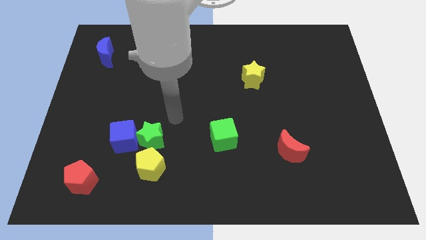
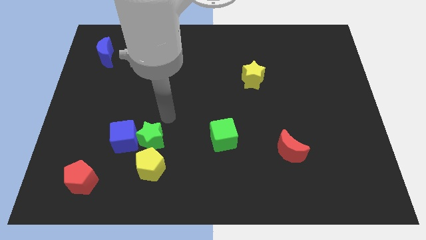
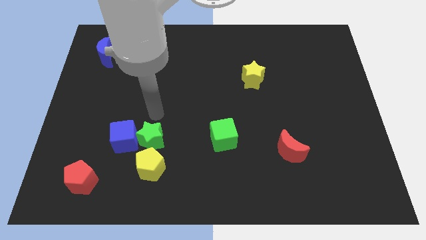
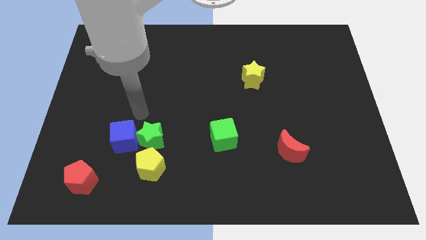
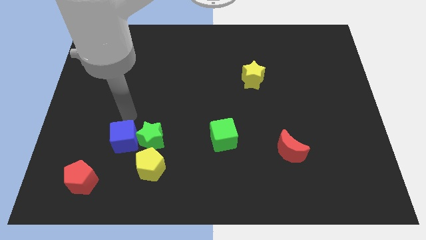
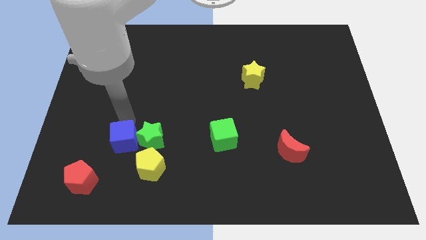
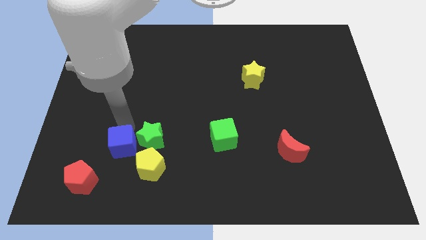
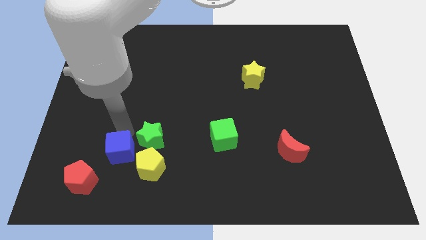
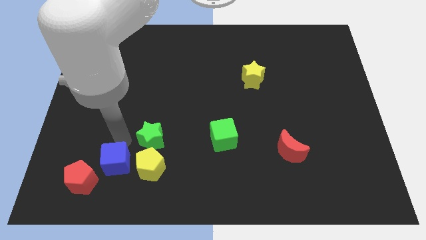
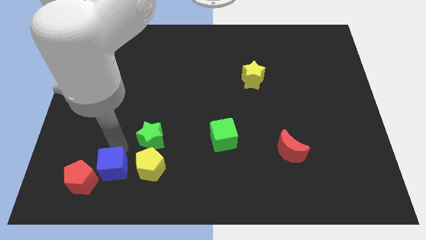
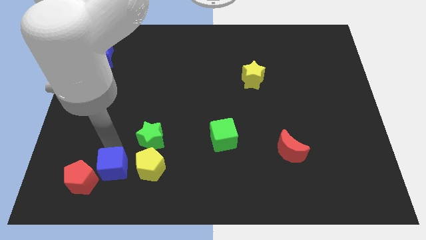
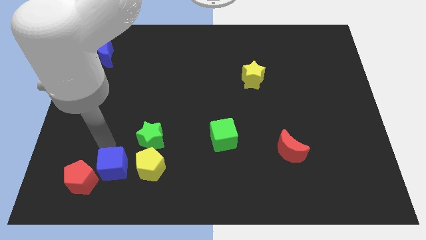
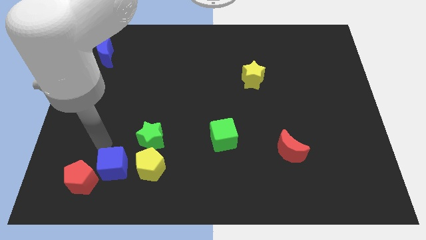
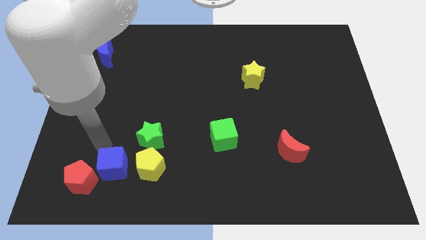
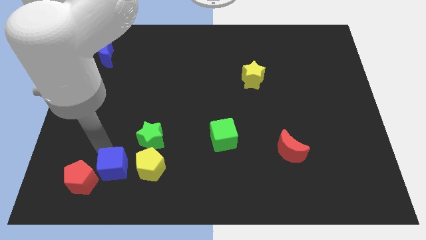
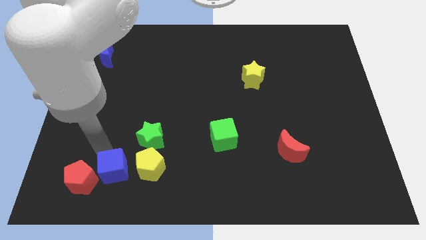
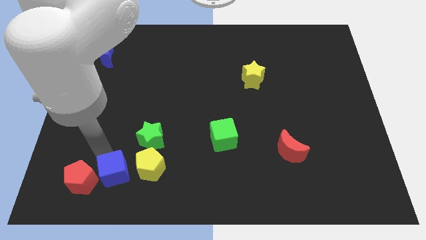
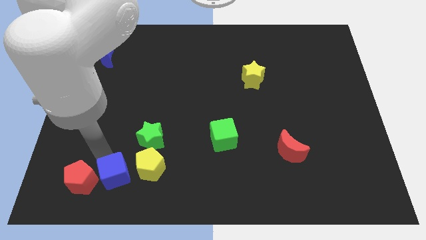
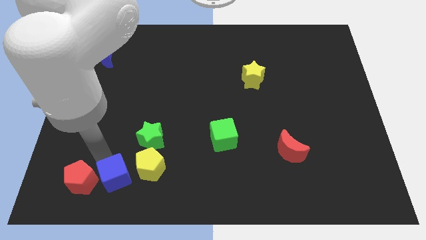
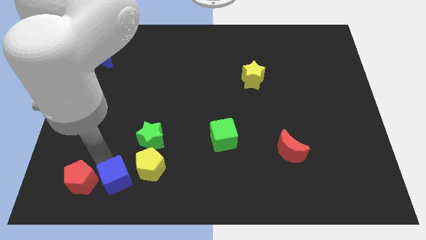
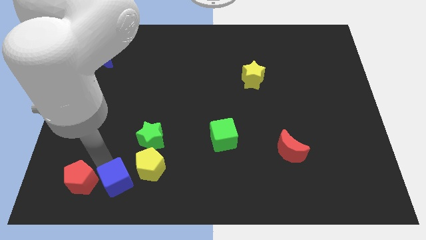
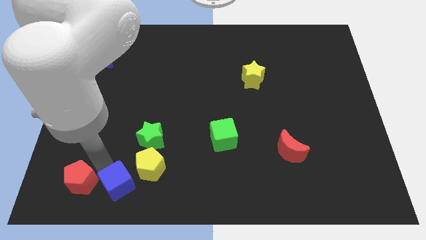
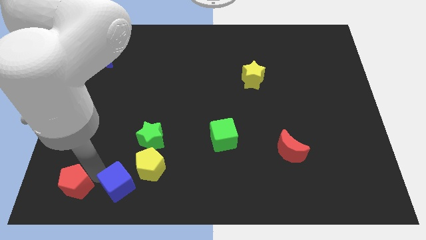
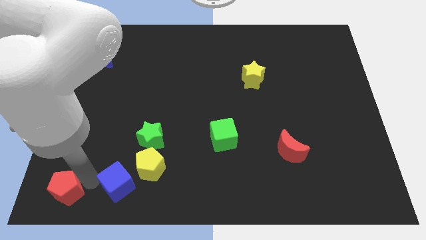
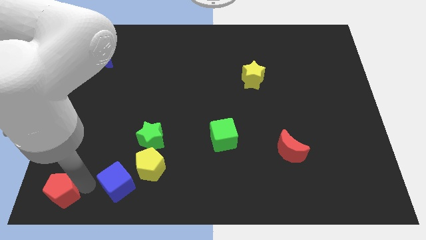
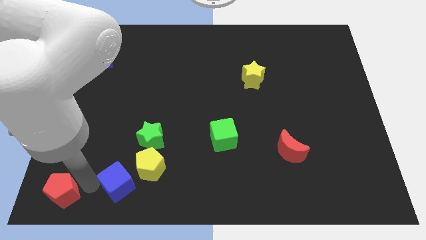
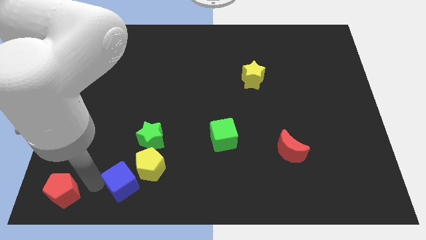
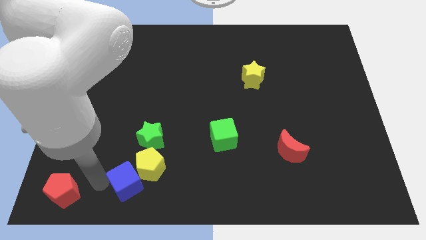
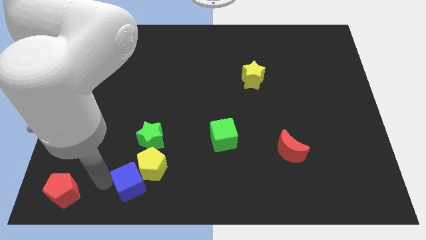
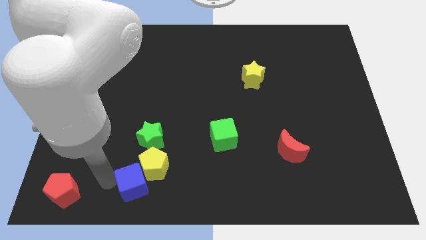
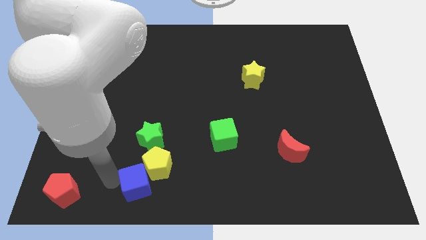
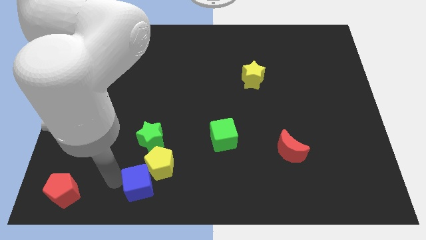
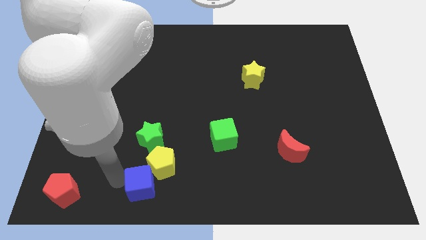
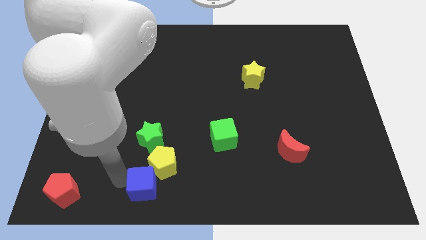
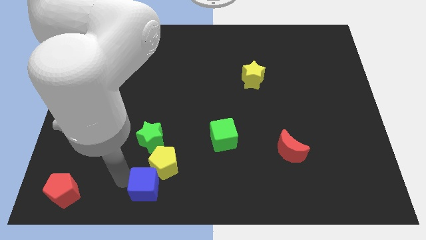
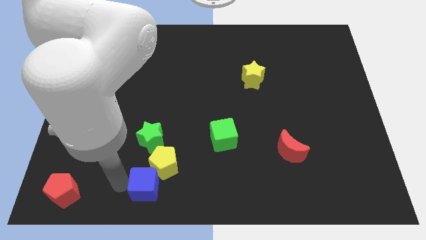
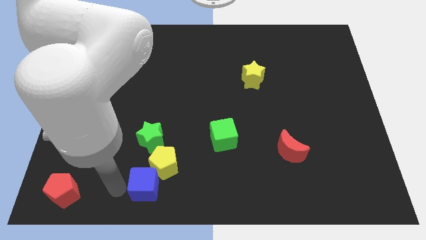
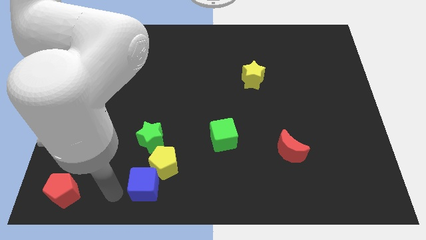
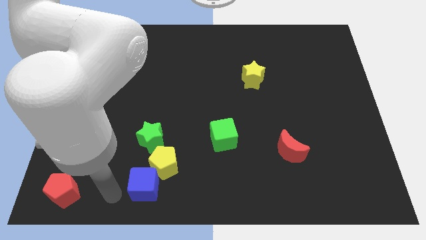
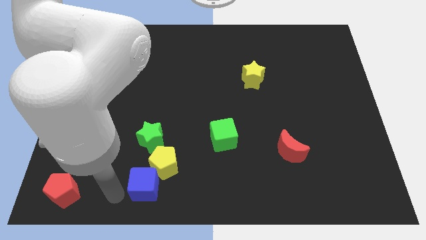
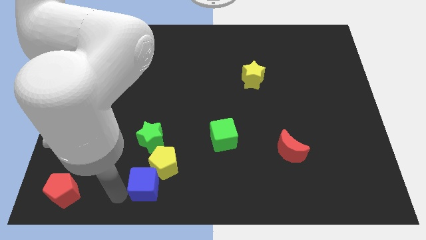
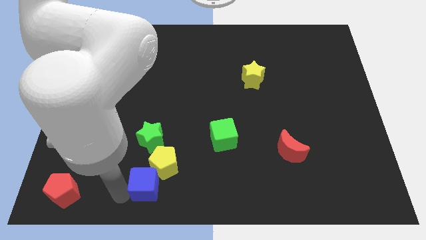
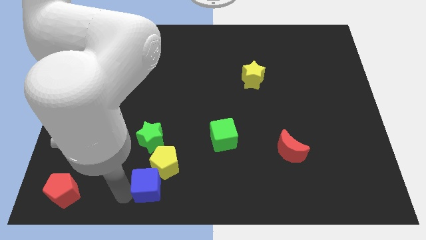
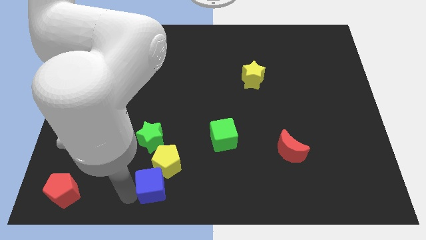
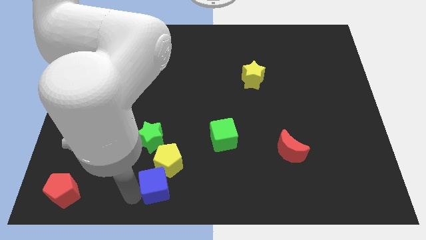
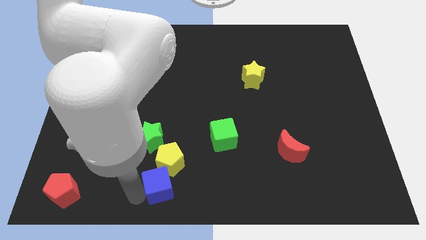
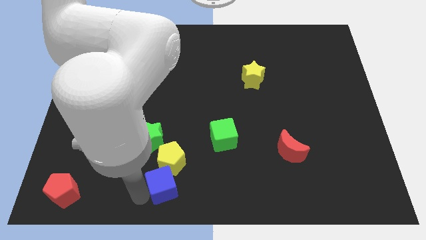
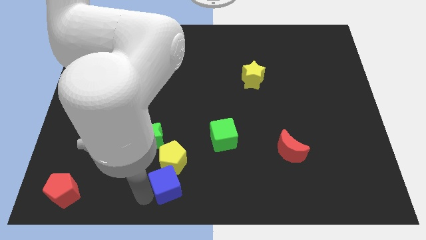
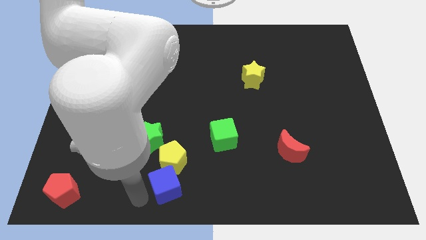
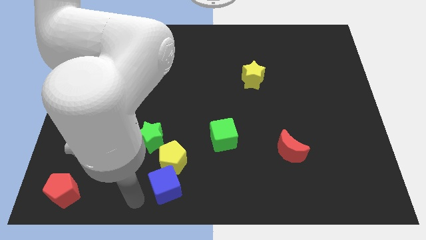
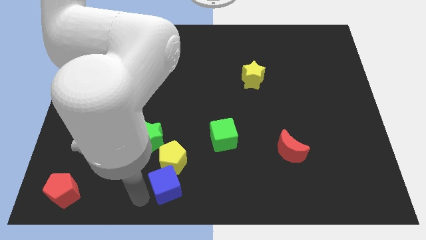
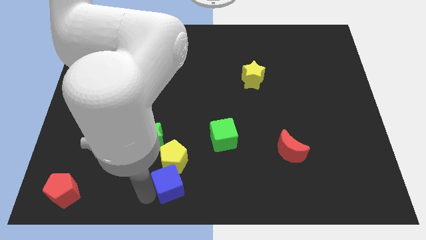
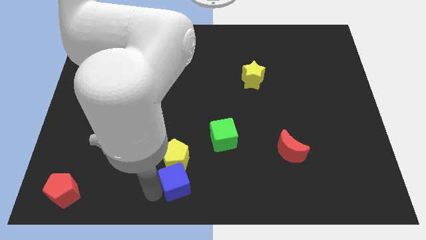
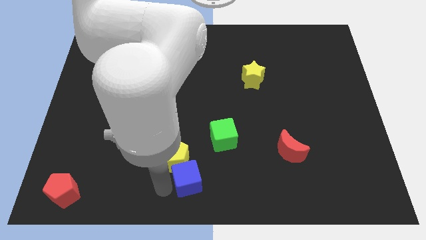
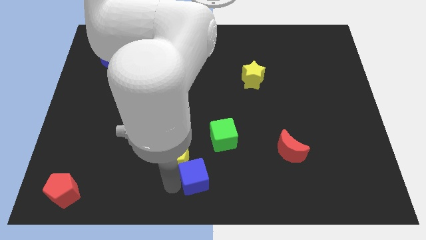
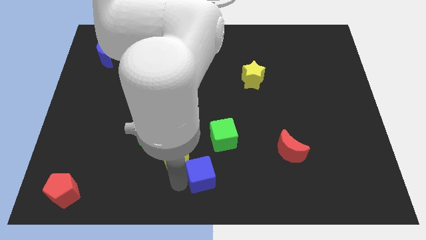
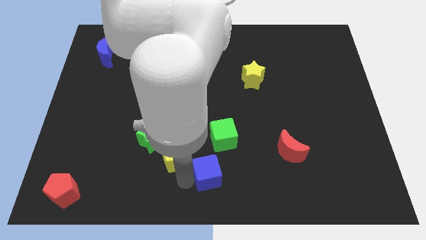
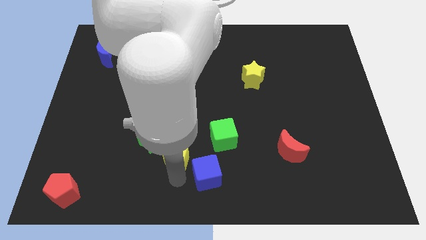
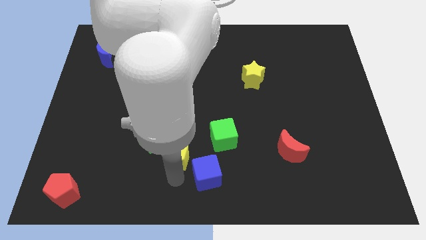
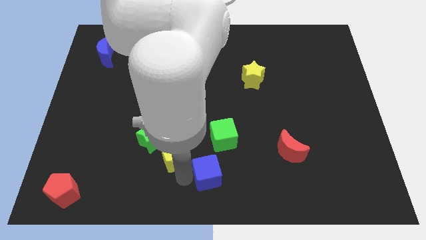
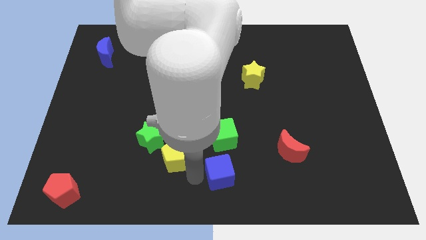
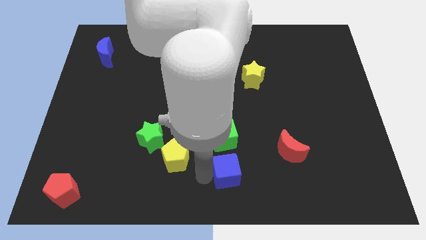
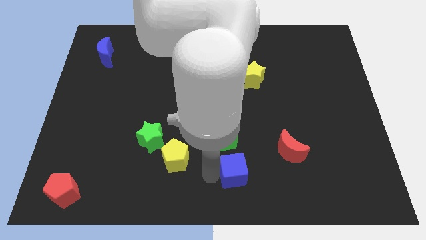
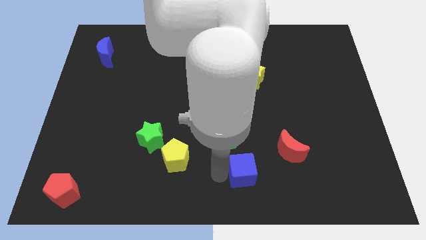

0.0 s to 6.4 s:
slide the blue cube diagonally down and to the left of the red moon

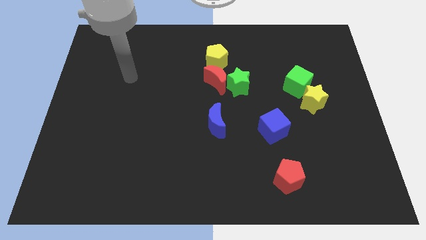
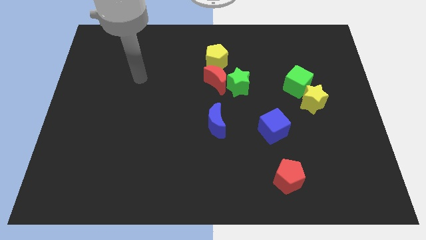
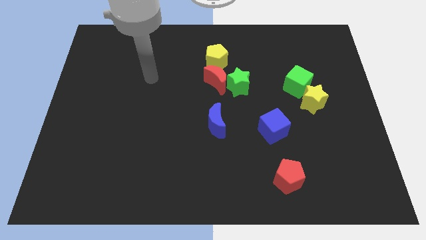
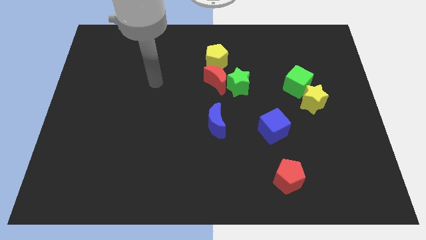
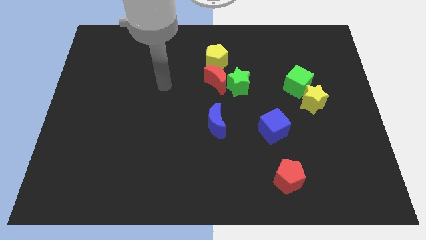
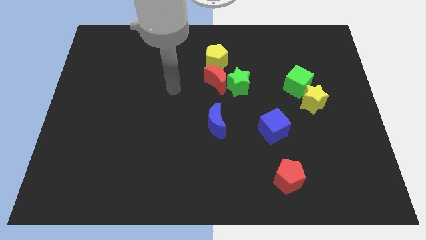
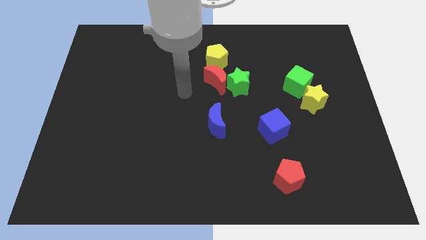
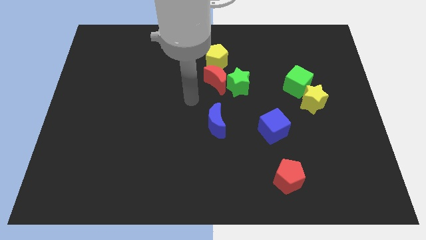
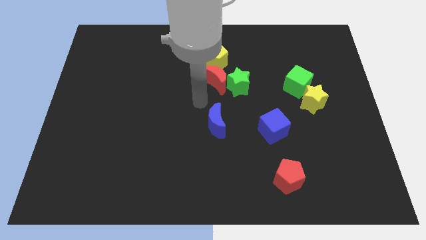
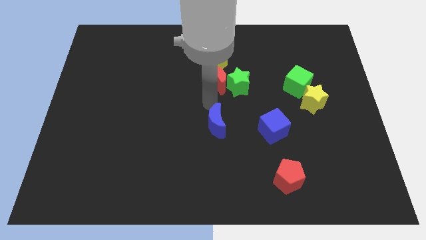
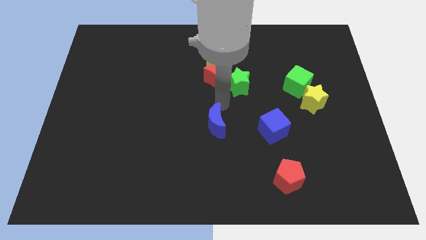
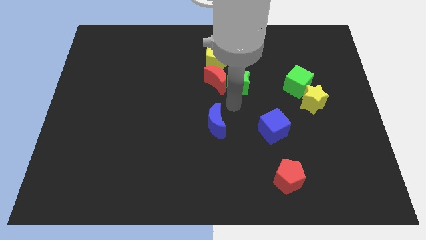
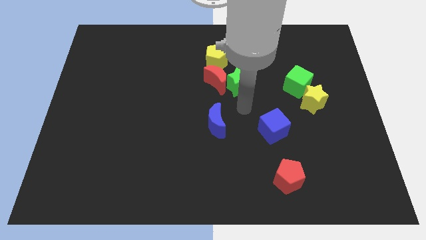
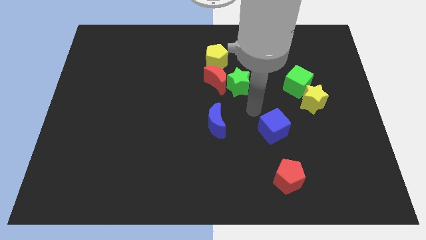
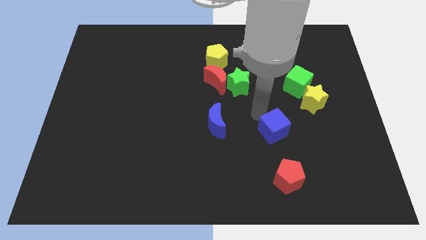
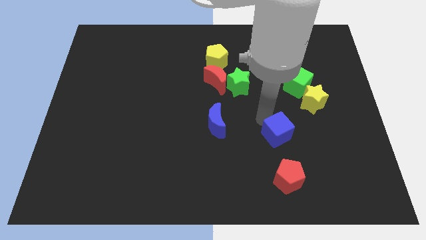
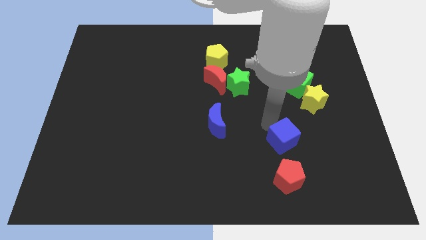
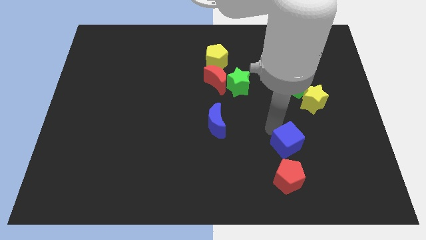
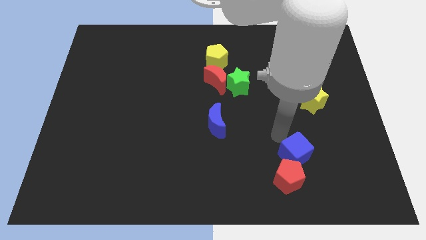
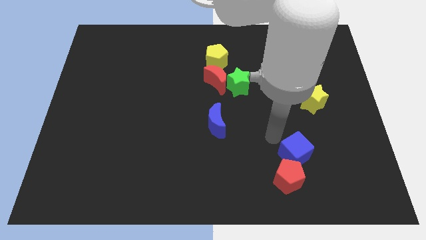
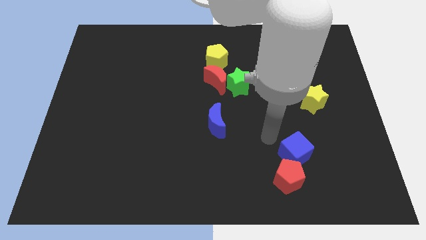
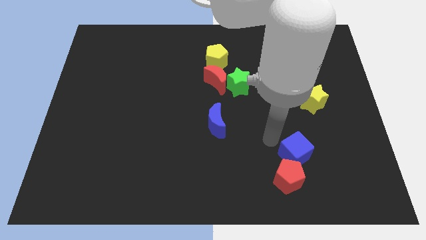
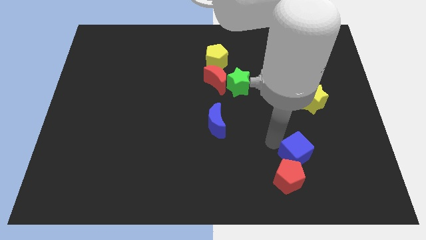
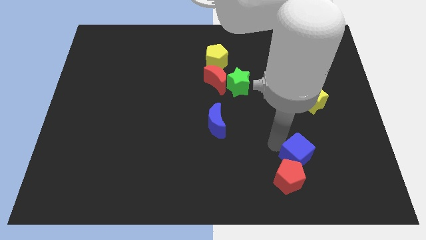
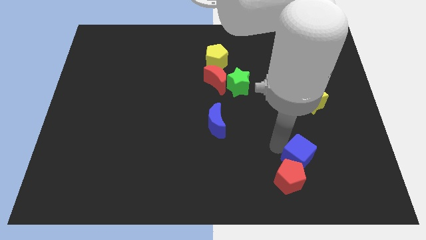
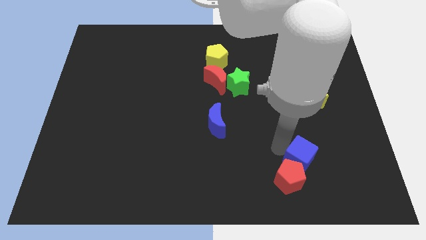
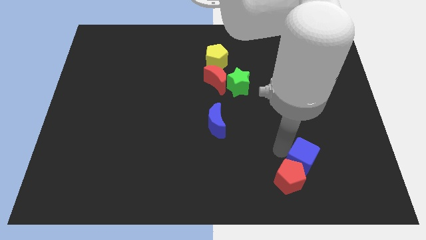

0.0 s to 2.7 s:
put the blue cube to the right of the red pentagon
